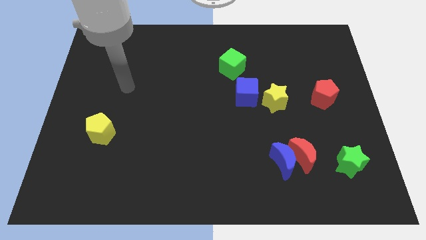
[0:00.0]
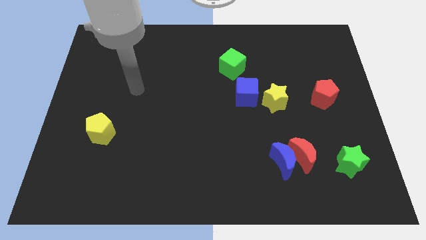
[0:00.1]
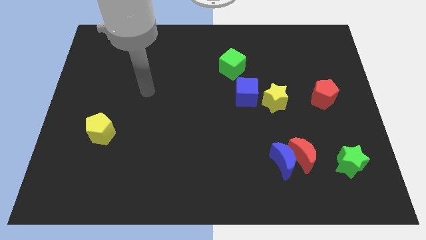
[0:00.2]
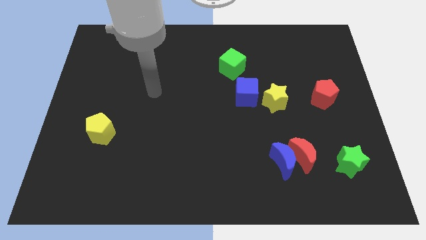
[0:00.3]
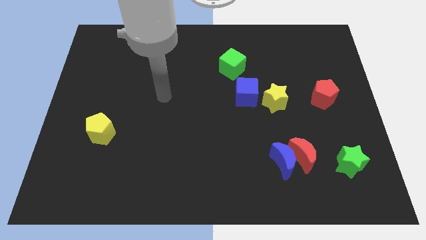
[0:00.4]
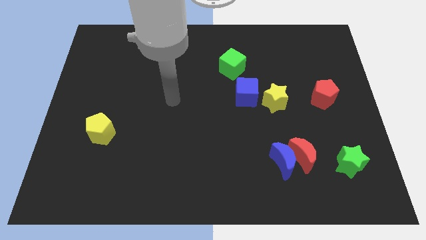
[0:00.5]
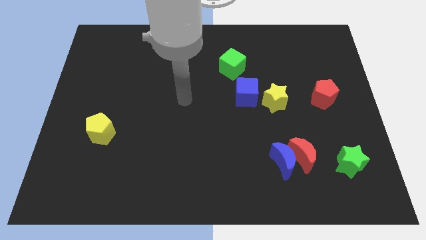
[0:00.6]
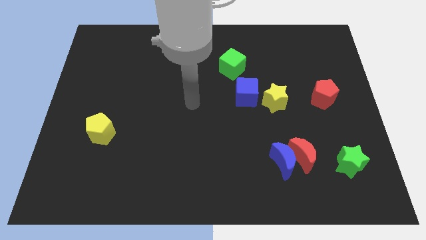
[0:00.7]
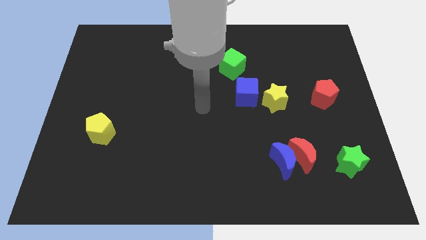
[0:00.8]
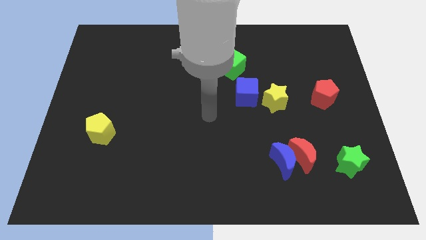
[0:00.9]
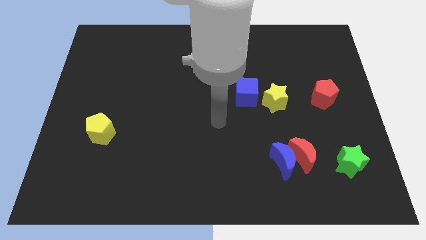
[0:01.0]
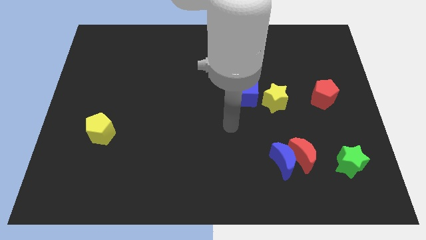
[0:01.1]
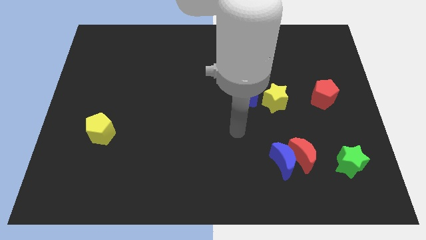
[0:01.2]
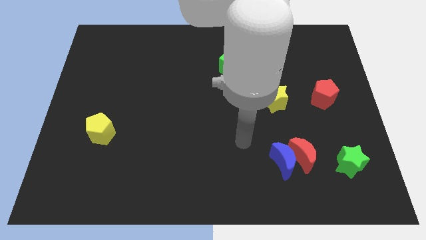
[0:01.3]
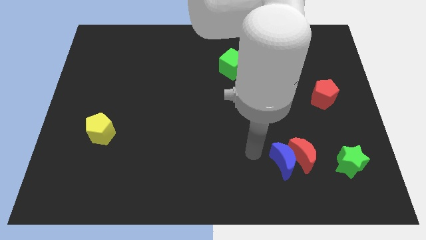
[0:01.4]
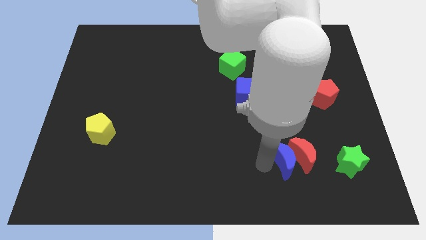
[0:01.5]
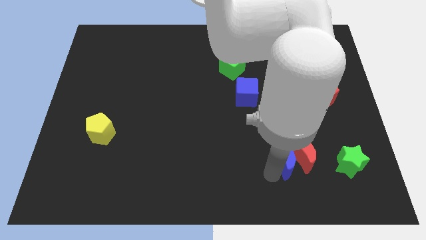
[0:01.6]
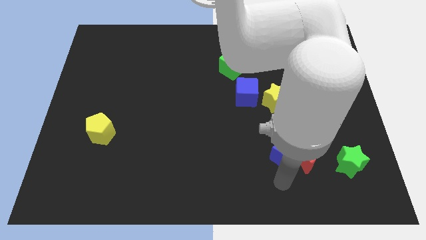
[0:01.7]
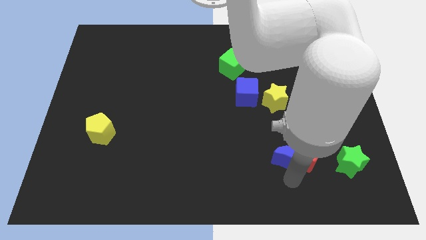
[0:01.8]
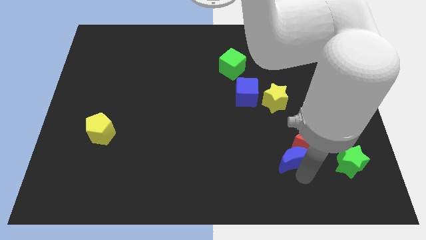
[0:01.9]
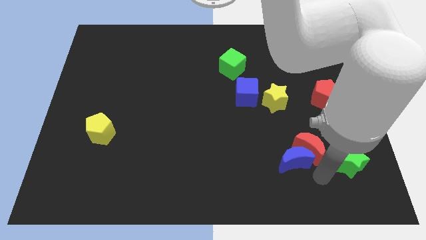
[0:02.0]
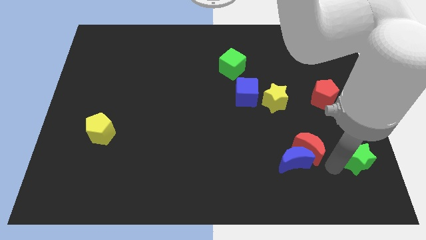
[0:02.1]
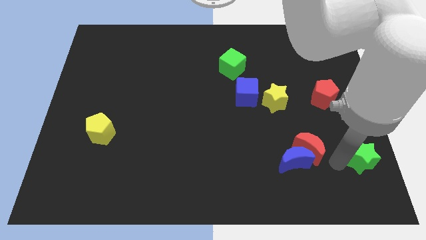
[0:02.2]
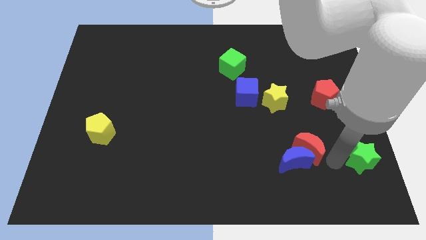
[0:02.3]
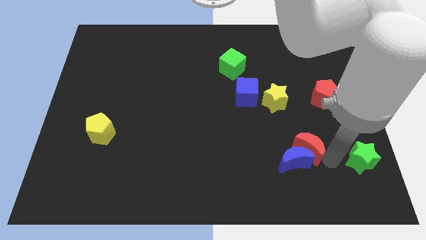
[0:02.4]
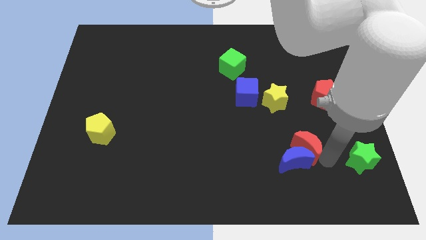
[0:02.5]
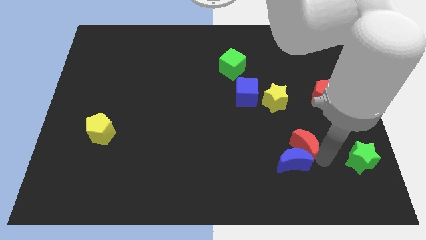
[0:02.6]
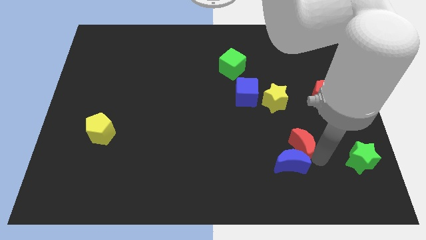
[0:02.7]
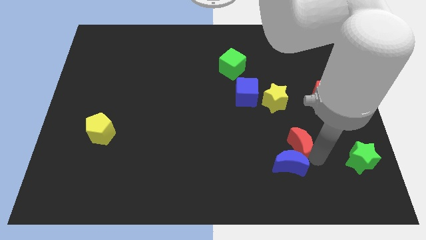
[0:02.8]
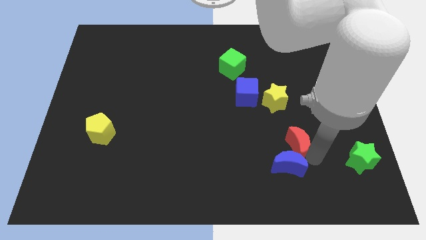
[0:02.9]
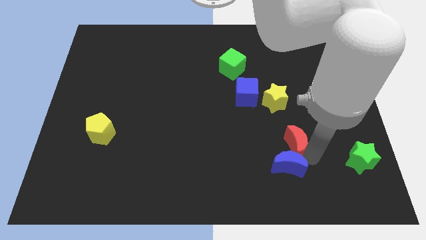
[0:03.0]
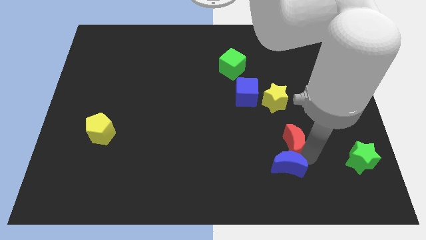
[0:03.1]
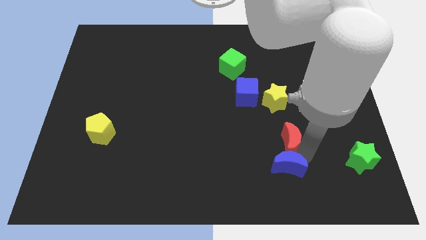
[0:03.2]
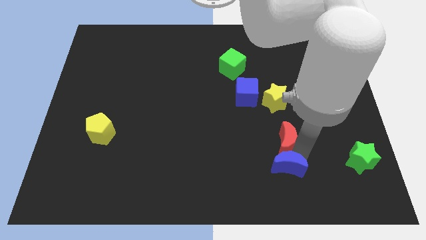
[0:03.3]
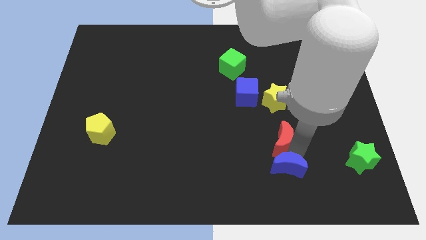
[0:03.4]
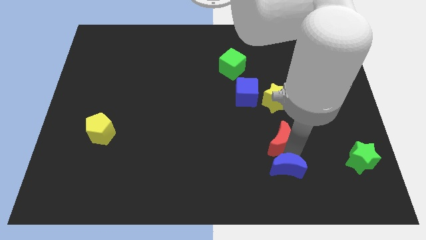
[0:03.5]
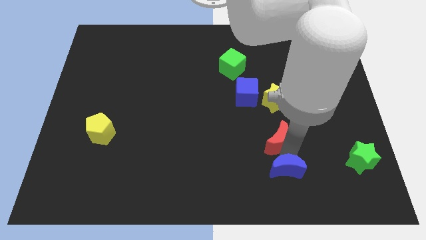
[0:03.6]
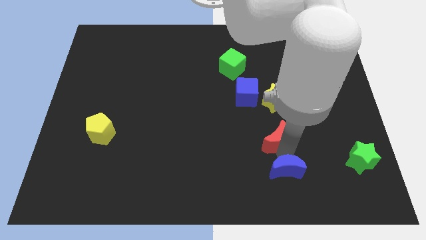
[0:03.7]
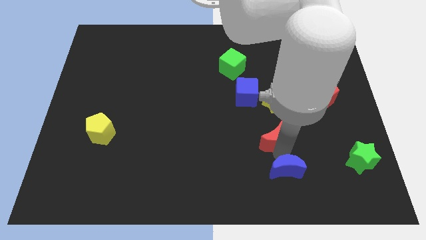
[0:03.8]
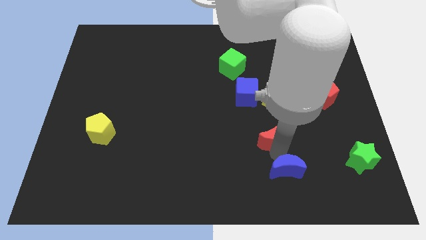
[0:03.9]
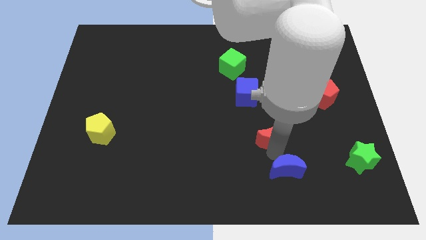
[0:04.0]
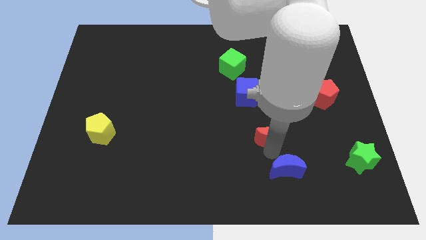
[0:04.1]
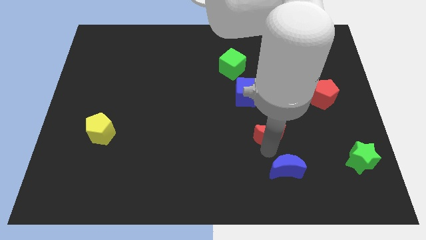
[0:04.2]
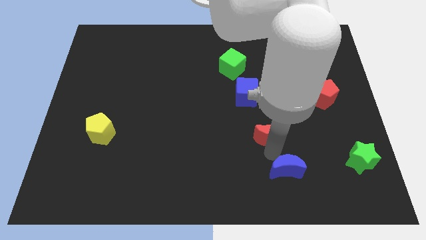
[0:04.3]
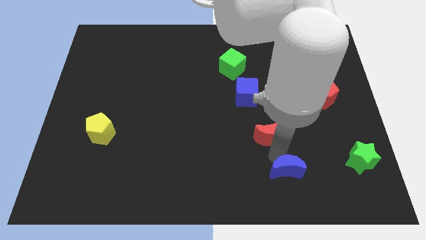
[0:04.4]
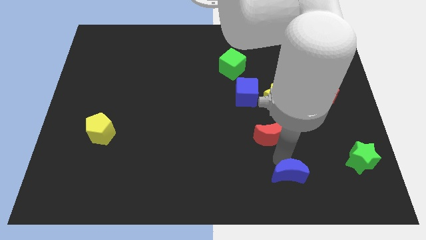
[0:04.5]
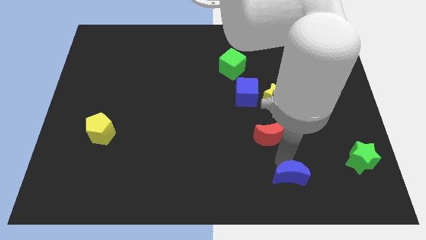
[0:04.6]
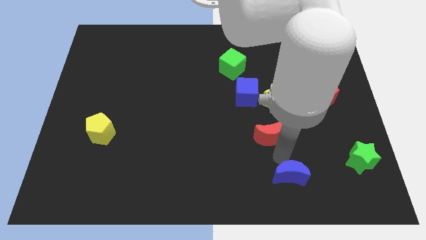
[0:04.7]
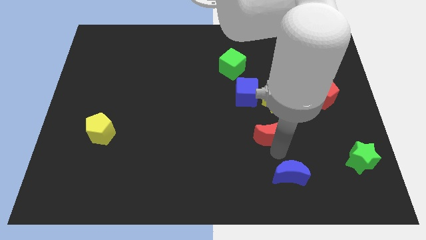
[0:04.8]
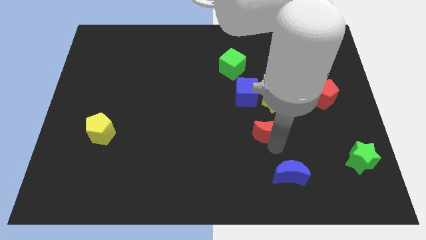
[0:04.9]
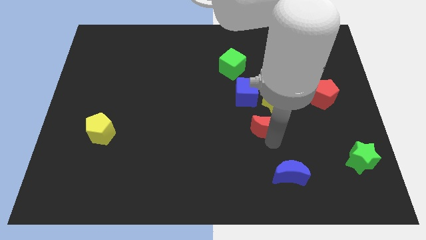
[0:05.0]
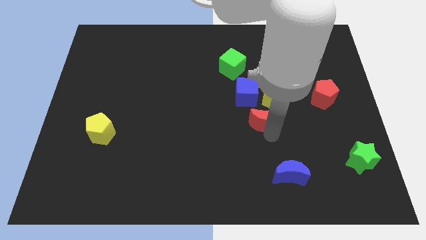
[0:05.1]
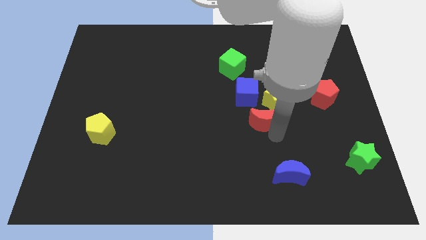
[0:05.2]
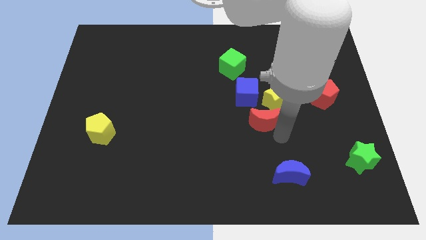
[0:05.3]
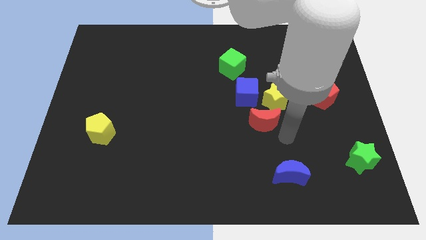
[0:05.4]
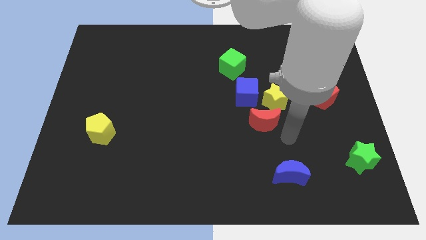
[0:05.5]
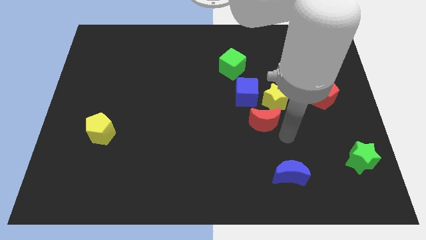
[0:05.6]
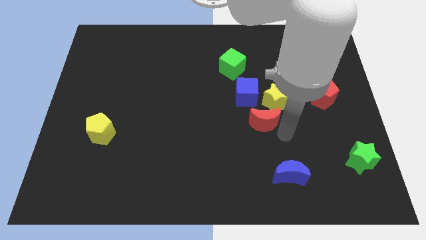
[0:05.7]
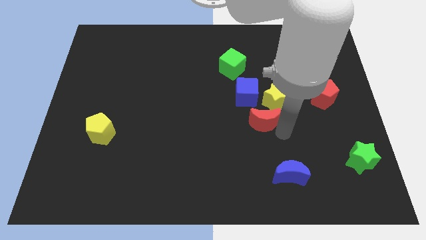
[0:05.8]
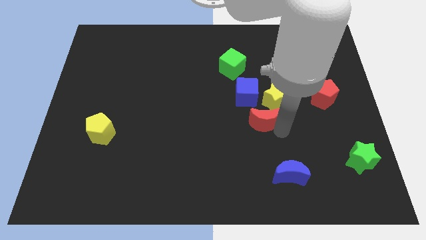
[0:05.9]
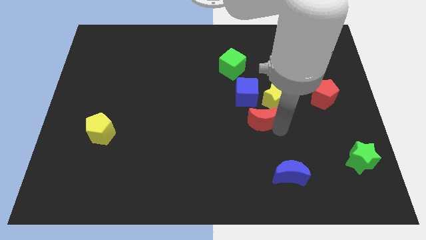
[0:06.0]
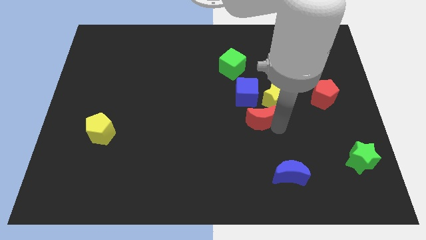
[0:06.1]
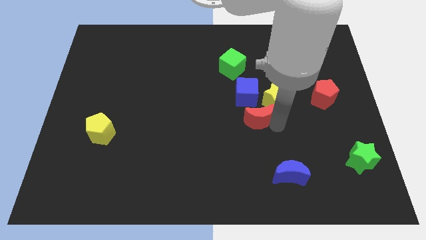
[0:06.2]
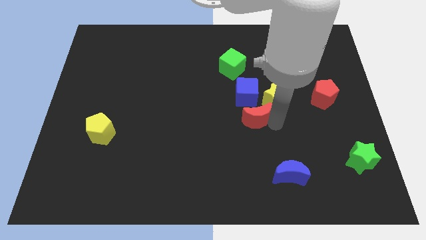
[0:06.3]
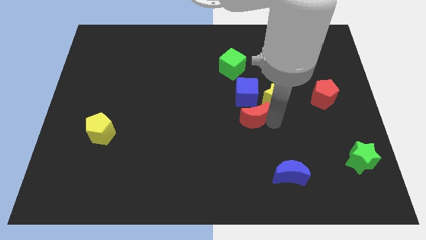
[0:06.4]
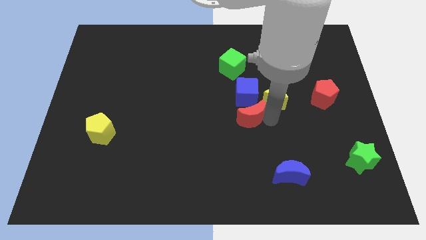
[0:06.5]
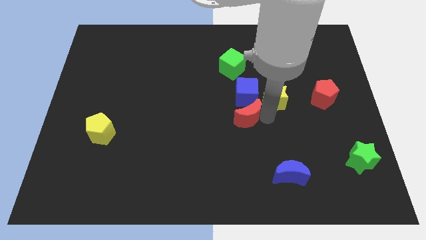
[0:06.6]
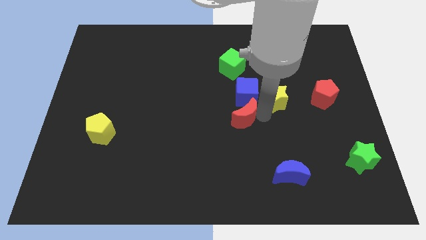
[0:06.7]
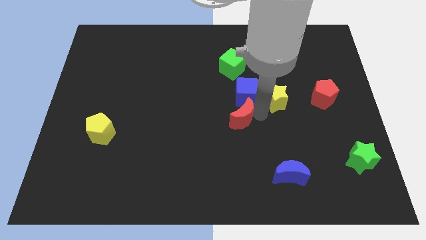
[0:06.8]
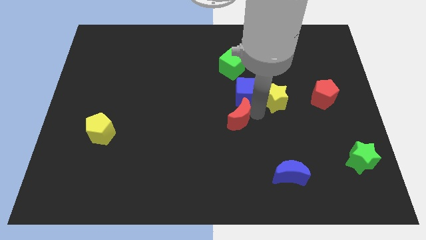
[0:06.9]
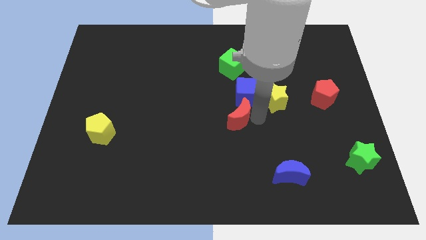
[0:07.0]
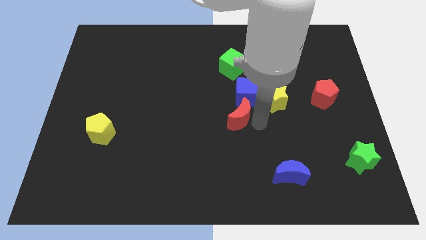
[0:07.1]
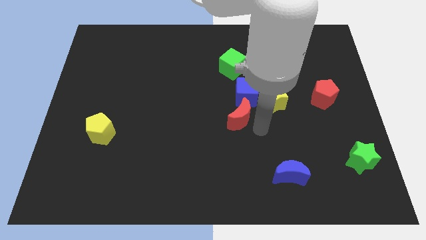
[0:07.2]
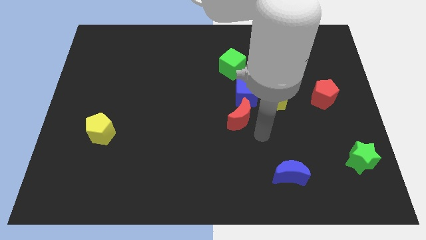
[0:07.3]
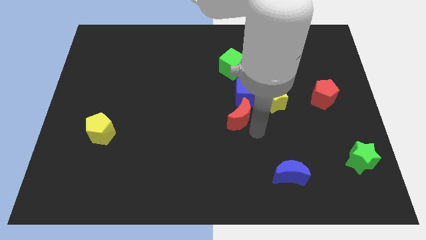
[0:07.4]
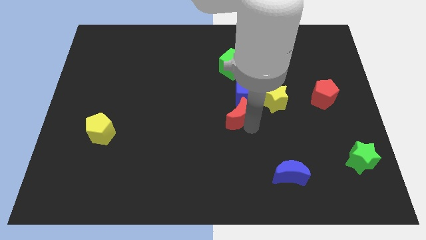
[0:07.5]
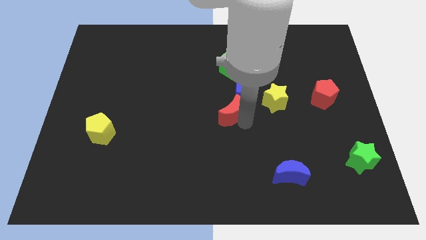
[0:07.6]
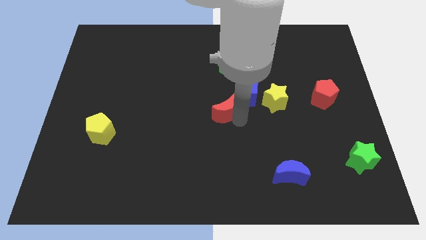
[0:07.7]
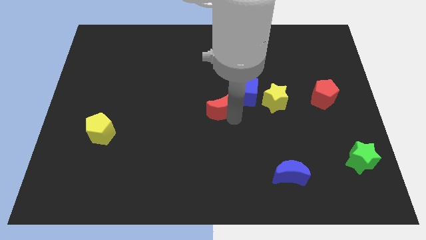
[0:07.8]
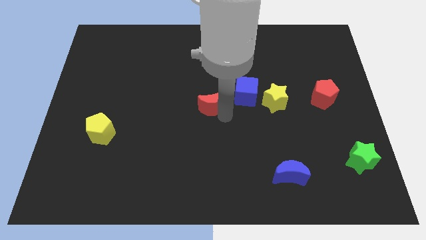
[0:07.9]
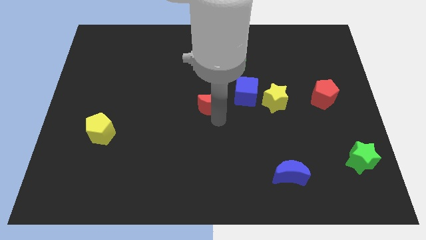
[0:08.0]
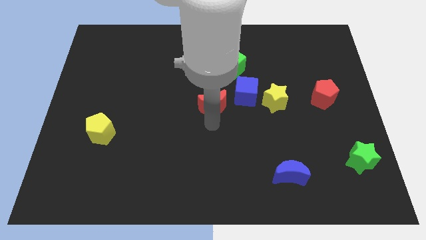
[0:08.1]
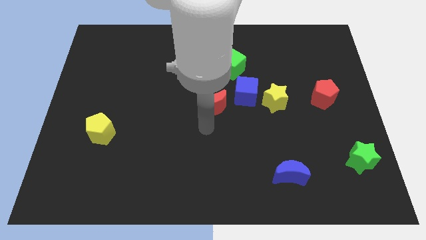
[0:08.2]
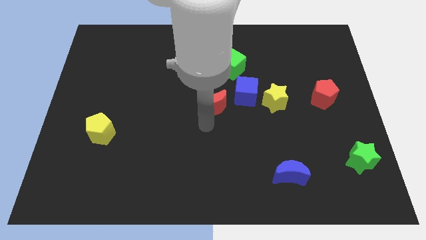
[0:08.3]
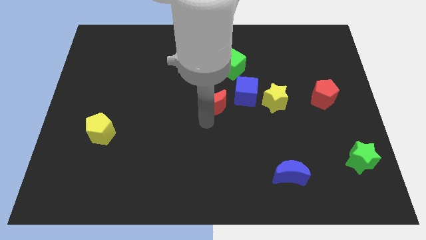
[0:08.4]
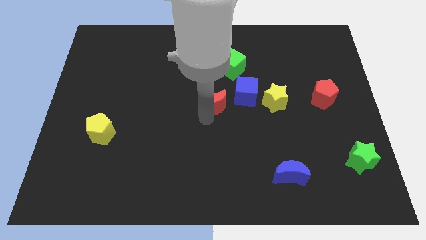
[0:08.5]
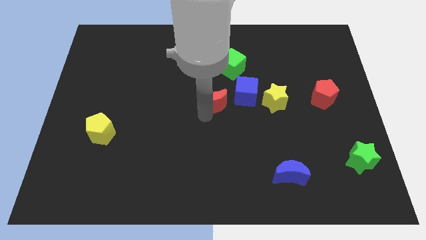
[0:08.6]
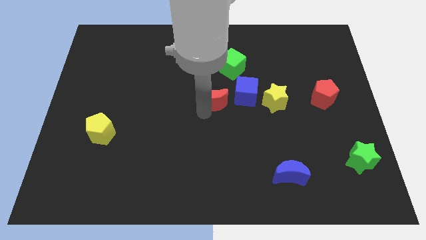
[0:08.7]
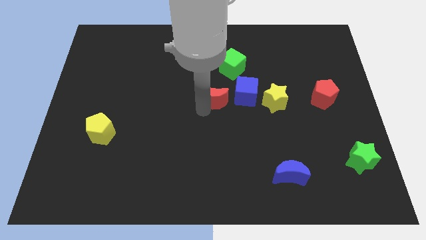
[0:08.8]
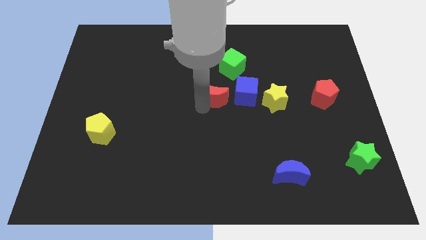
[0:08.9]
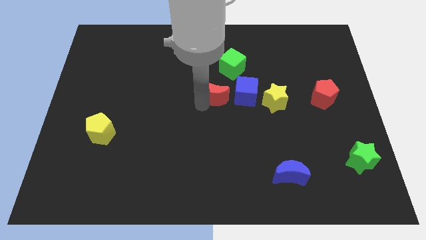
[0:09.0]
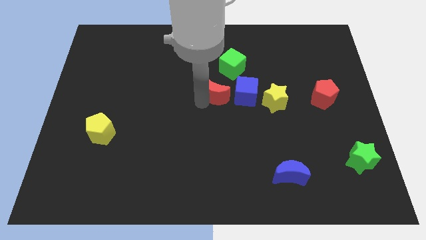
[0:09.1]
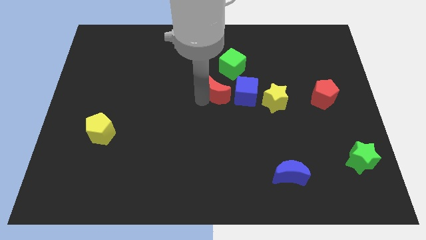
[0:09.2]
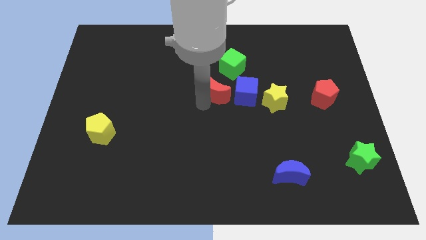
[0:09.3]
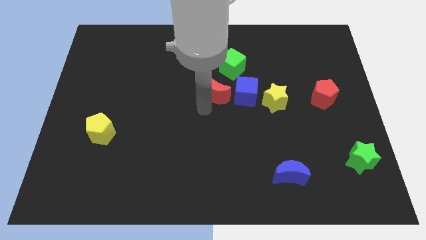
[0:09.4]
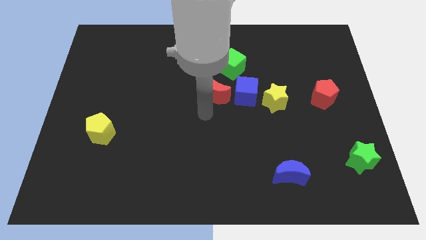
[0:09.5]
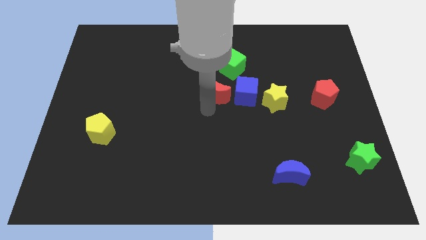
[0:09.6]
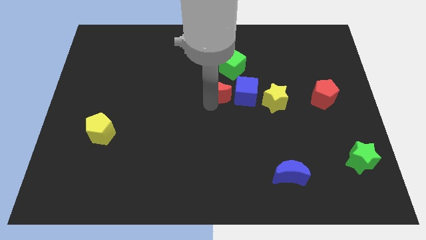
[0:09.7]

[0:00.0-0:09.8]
push the red moon diagonally up and to the left of the blue cube
